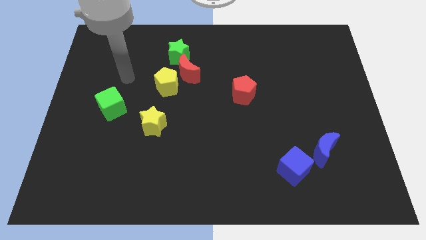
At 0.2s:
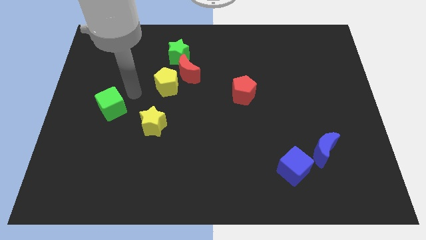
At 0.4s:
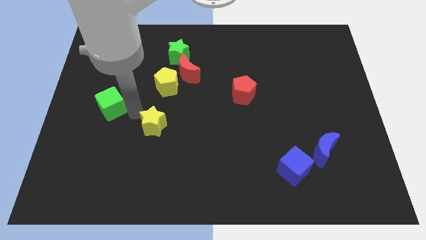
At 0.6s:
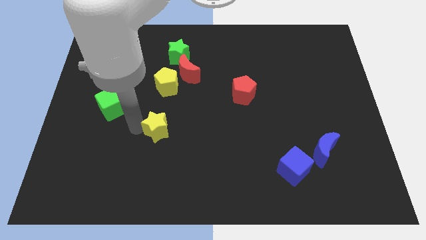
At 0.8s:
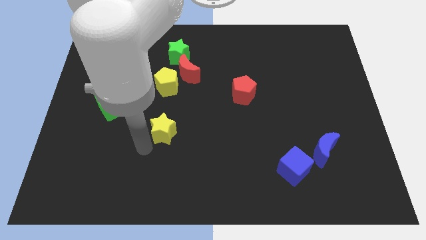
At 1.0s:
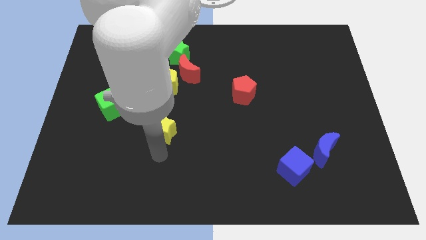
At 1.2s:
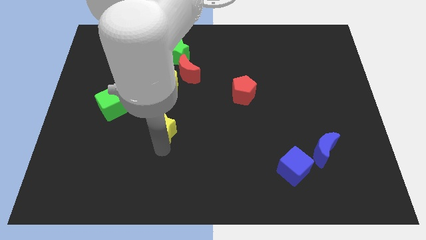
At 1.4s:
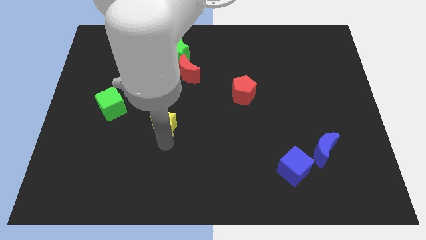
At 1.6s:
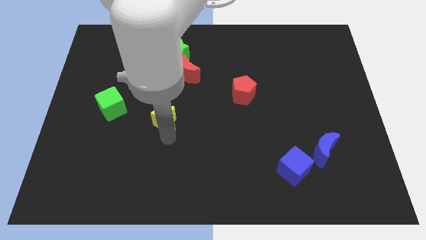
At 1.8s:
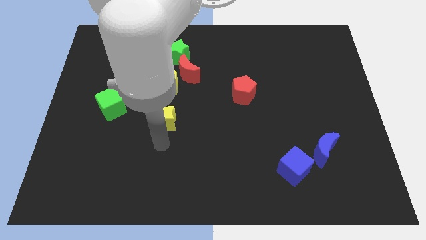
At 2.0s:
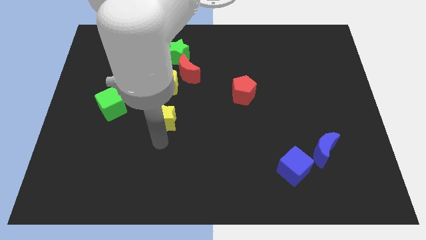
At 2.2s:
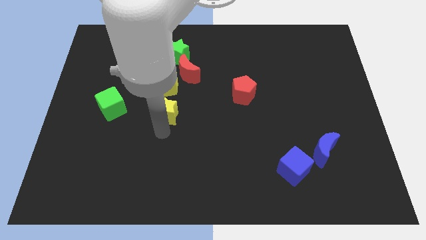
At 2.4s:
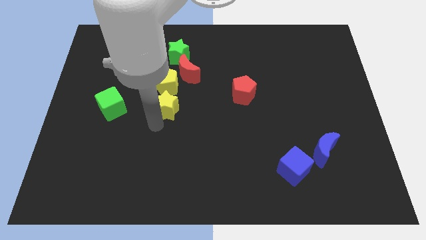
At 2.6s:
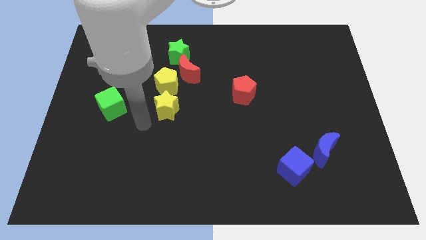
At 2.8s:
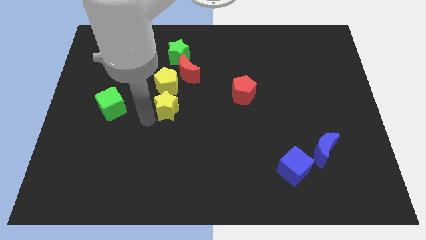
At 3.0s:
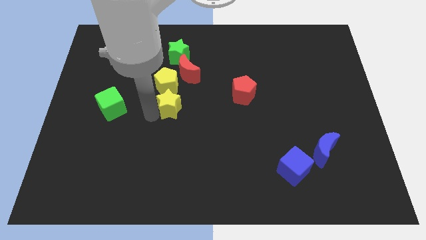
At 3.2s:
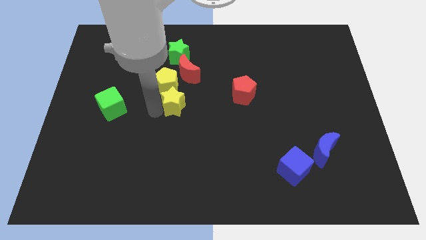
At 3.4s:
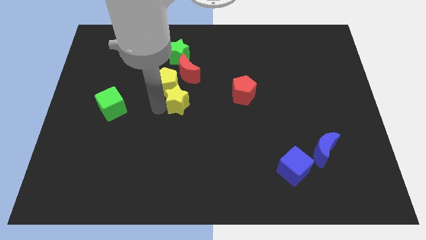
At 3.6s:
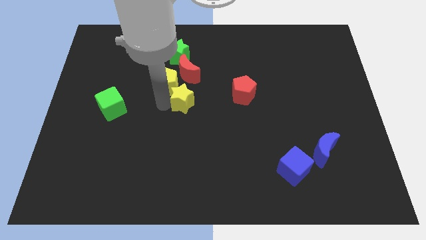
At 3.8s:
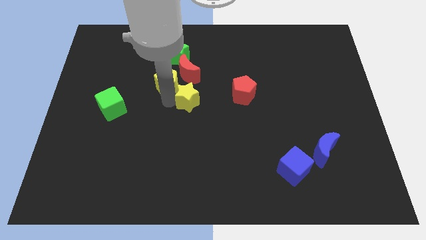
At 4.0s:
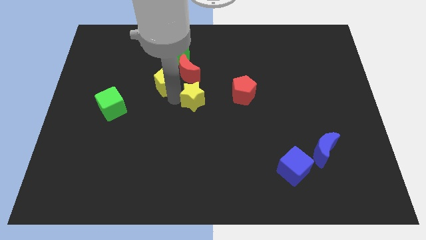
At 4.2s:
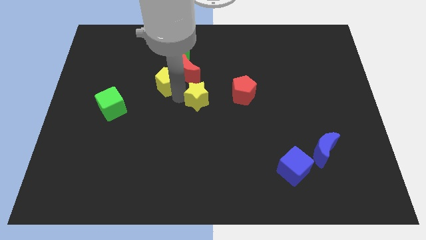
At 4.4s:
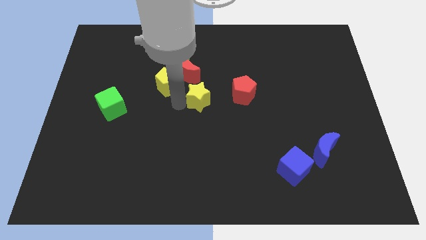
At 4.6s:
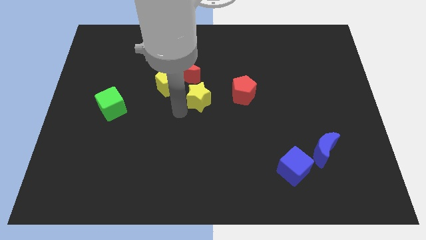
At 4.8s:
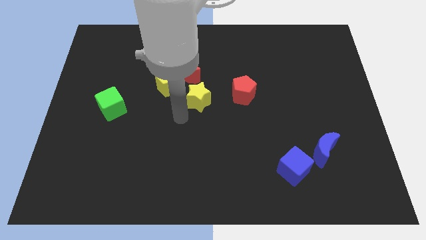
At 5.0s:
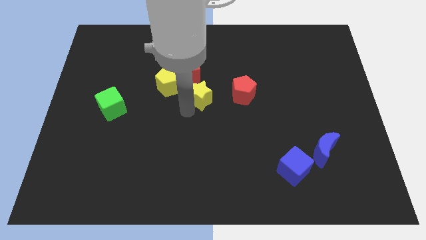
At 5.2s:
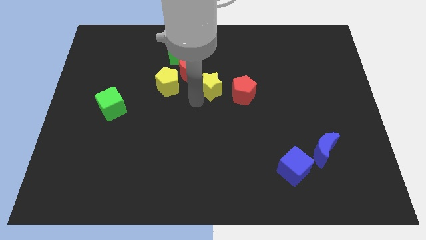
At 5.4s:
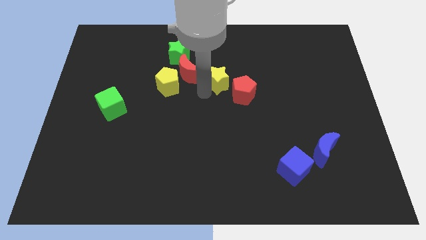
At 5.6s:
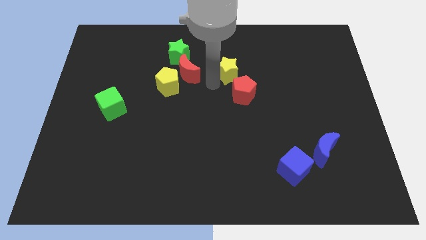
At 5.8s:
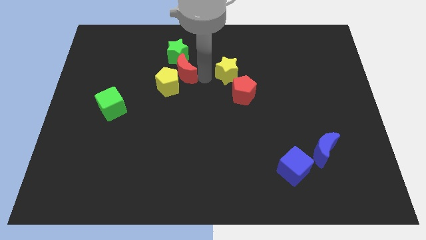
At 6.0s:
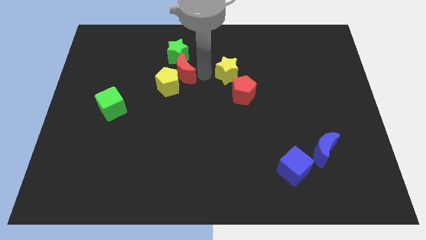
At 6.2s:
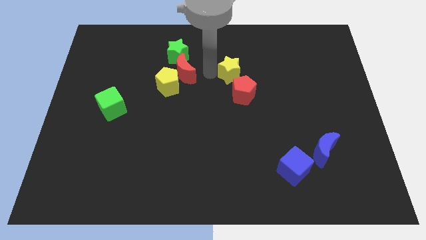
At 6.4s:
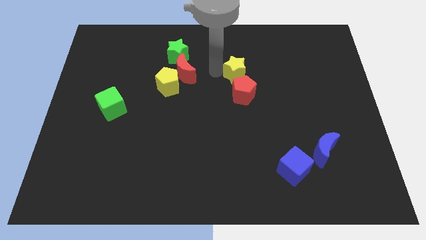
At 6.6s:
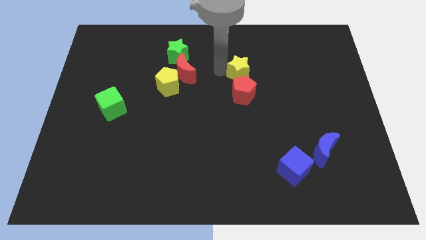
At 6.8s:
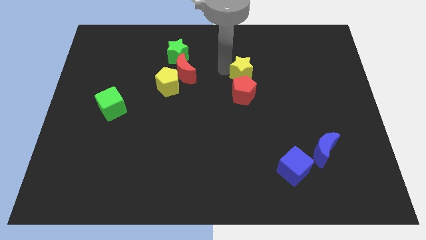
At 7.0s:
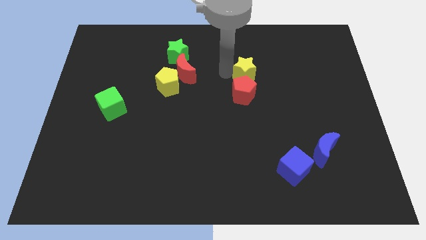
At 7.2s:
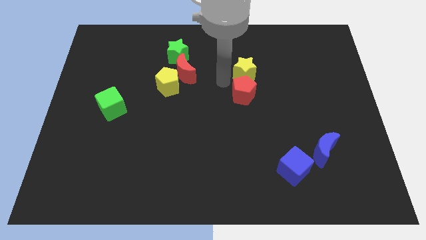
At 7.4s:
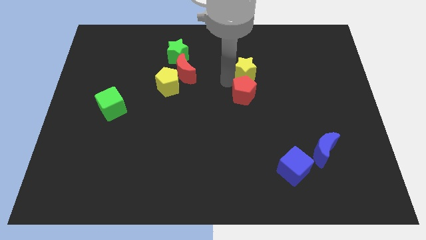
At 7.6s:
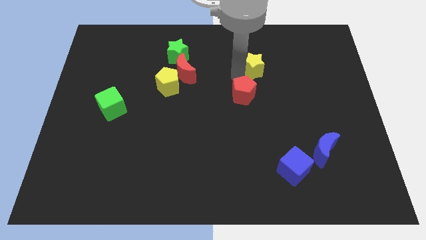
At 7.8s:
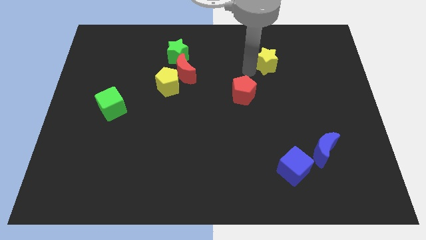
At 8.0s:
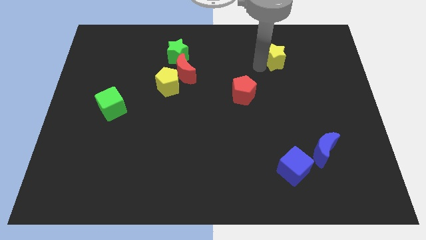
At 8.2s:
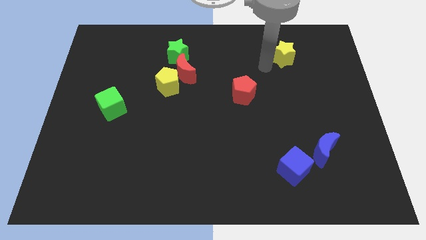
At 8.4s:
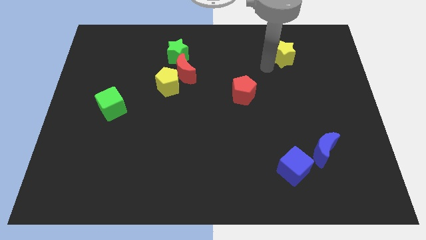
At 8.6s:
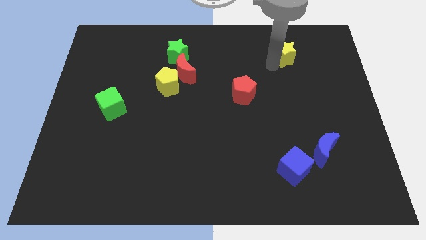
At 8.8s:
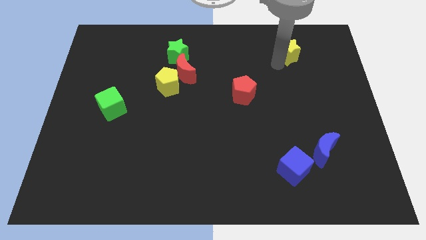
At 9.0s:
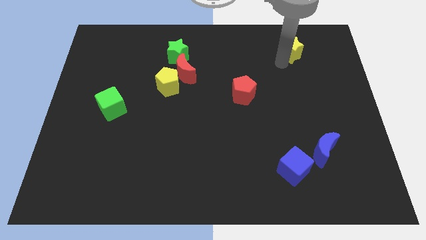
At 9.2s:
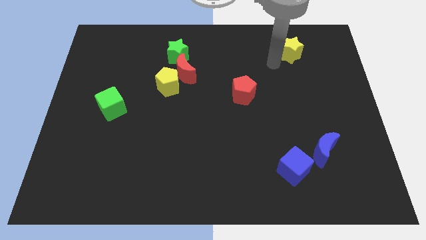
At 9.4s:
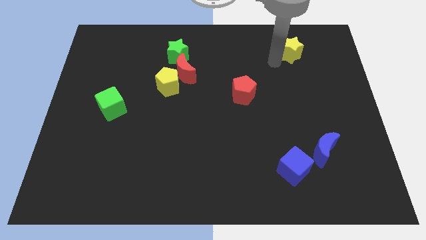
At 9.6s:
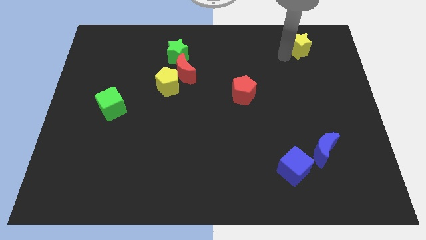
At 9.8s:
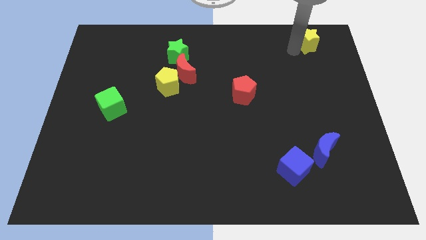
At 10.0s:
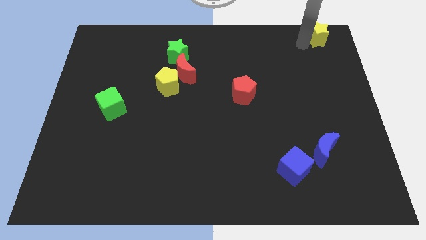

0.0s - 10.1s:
slide the yellow star to the top right of the board

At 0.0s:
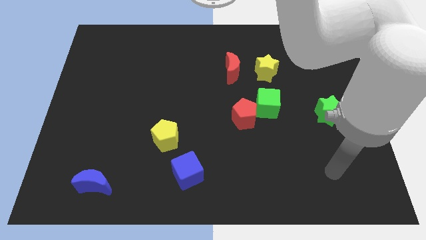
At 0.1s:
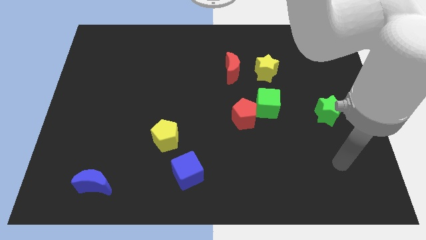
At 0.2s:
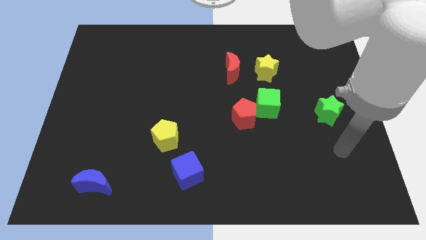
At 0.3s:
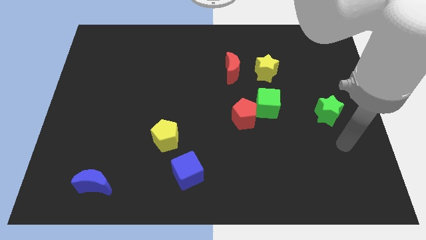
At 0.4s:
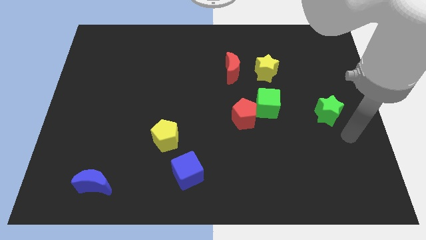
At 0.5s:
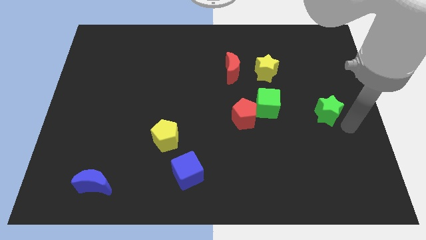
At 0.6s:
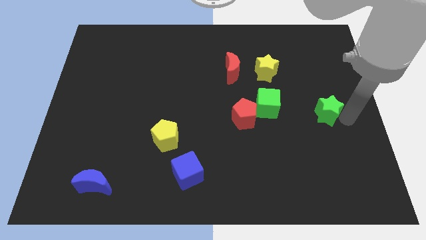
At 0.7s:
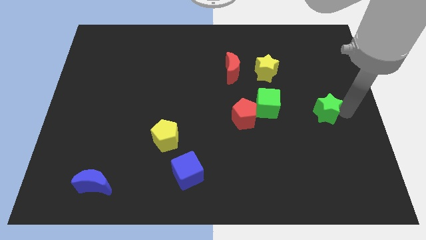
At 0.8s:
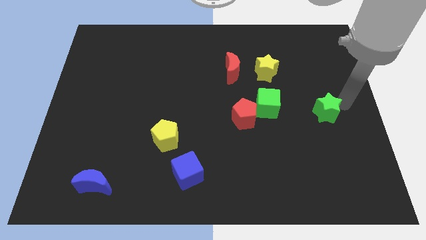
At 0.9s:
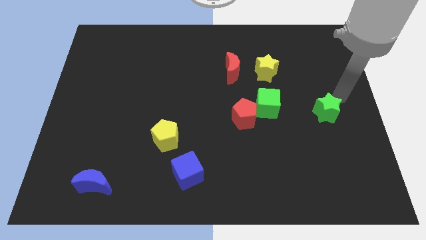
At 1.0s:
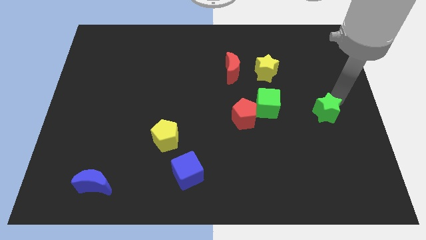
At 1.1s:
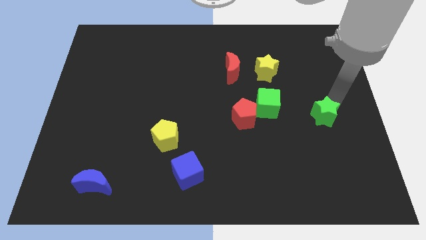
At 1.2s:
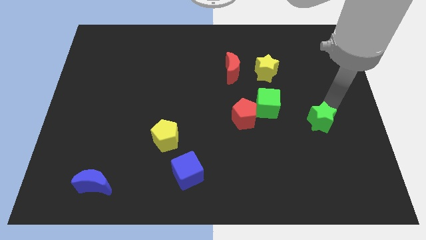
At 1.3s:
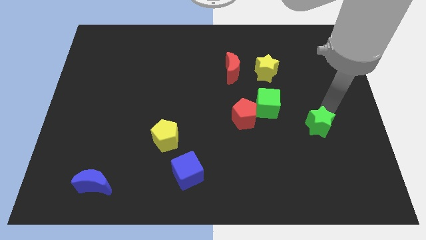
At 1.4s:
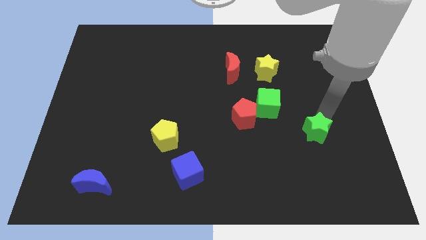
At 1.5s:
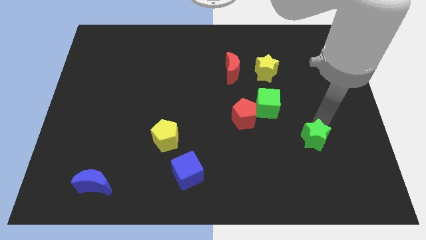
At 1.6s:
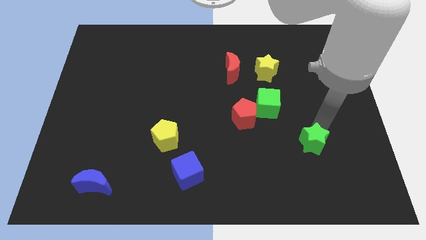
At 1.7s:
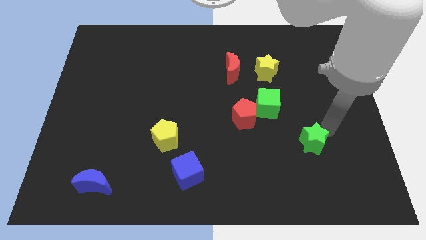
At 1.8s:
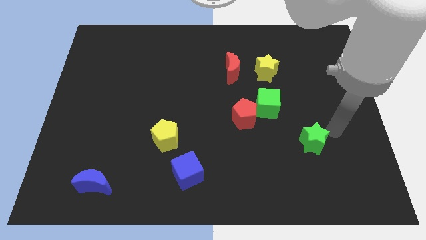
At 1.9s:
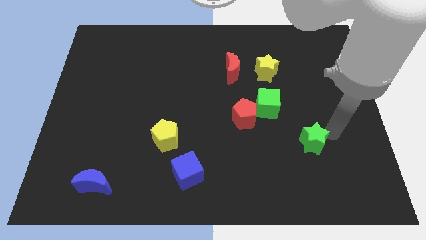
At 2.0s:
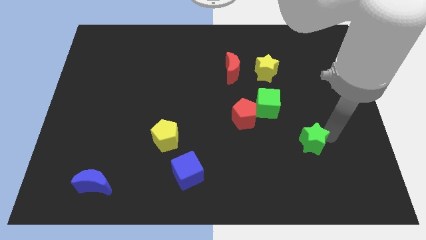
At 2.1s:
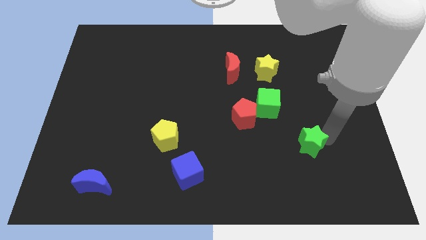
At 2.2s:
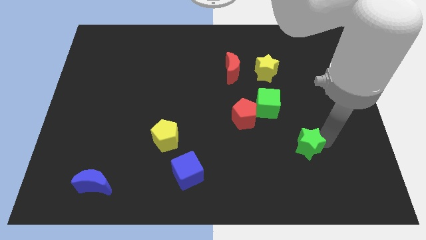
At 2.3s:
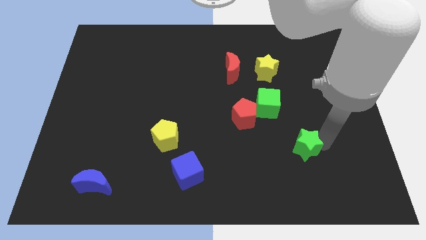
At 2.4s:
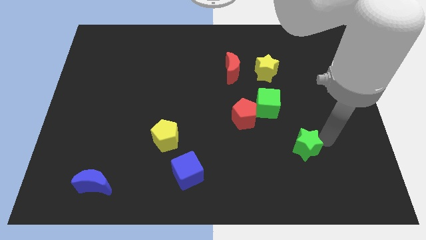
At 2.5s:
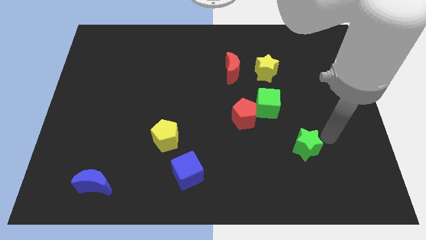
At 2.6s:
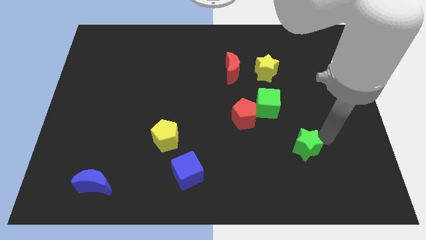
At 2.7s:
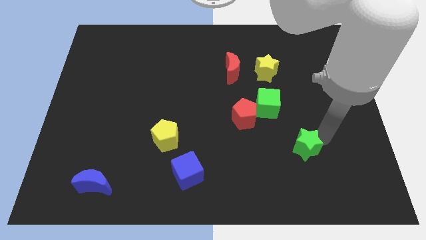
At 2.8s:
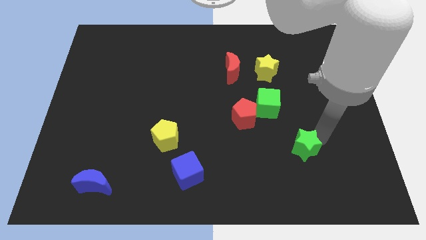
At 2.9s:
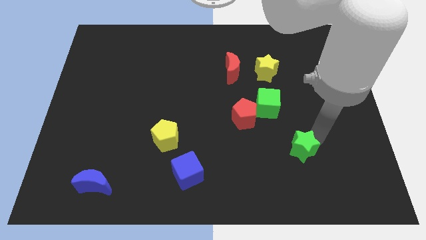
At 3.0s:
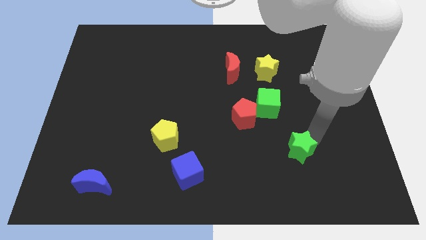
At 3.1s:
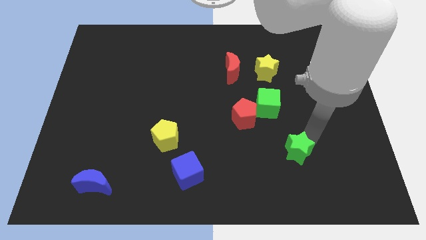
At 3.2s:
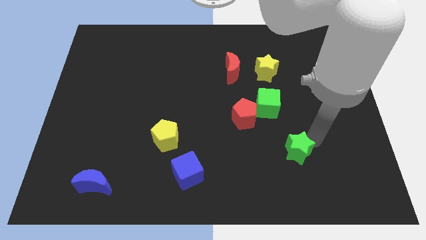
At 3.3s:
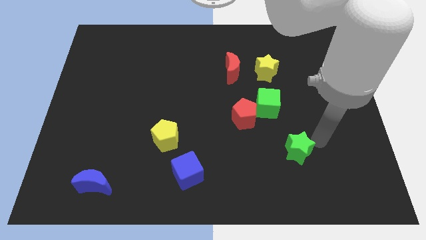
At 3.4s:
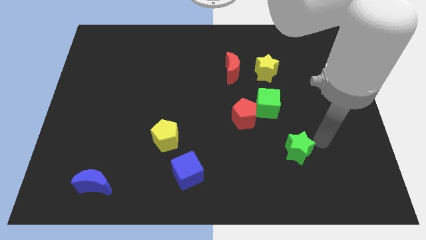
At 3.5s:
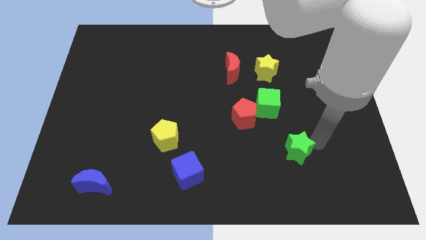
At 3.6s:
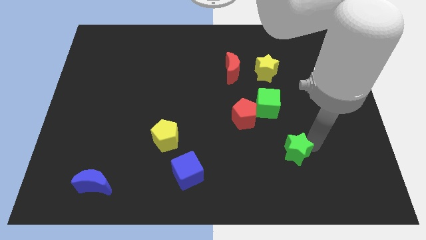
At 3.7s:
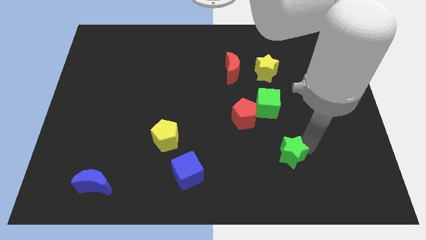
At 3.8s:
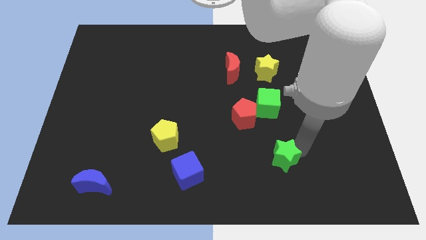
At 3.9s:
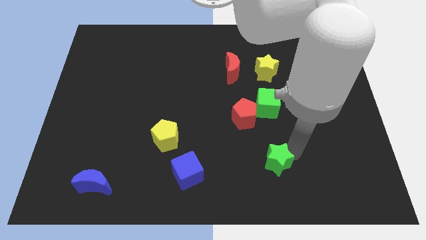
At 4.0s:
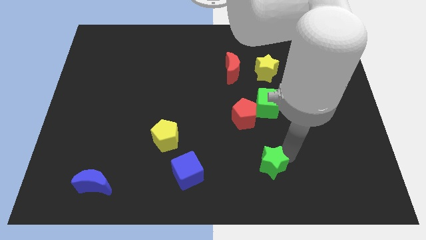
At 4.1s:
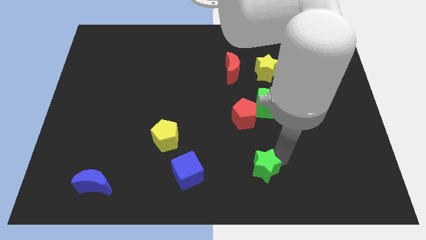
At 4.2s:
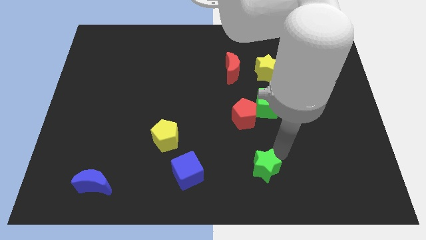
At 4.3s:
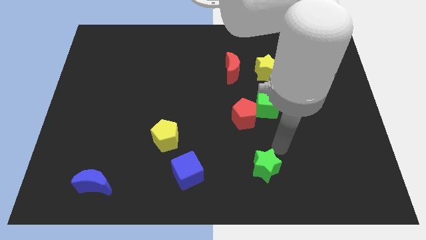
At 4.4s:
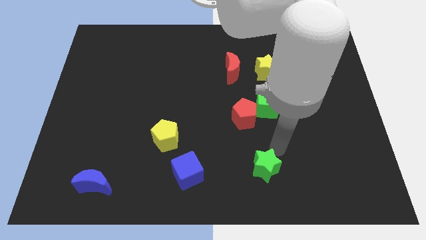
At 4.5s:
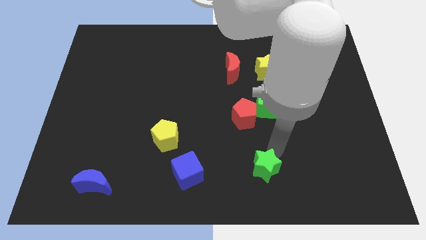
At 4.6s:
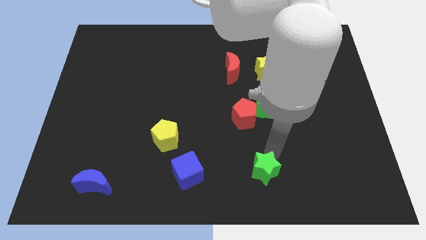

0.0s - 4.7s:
slide the green star to the bottom side
